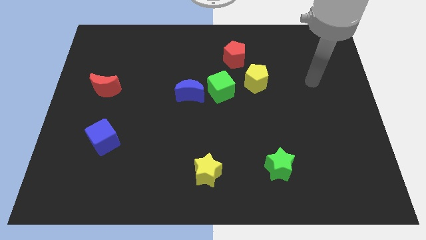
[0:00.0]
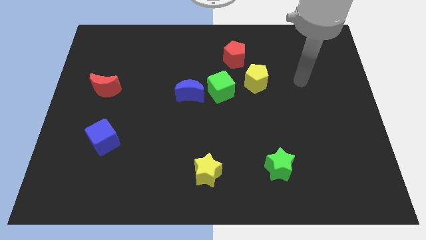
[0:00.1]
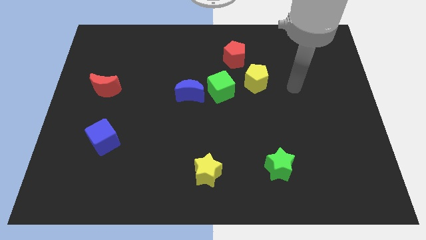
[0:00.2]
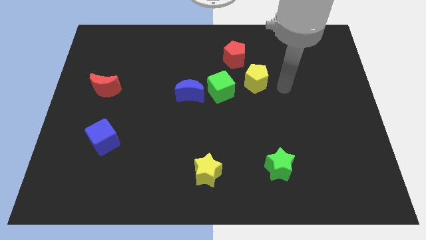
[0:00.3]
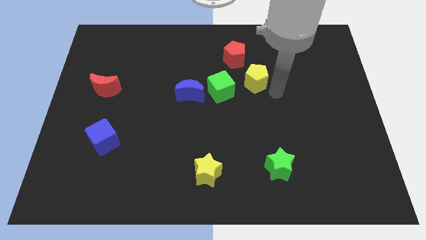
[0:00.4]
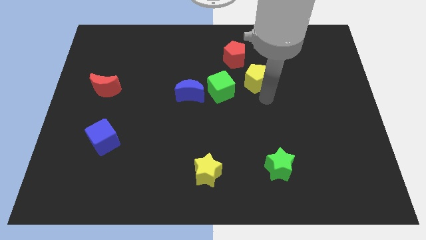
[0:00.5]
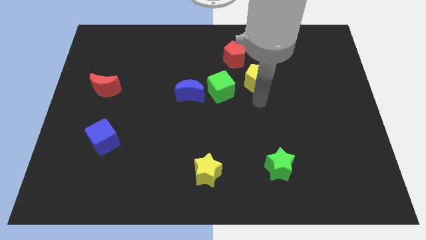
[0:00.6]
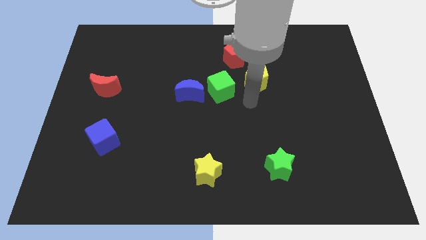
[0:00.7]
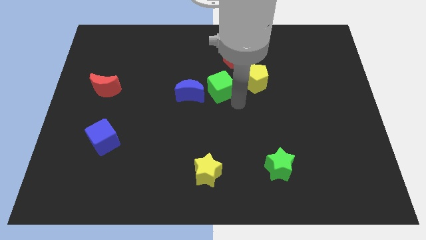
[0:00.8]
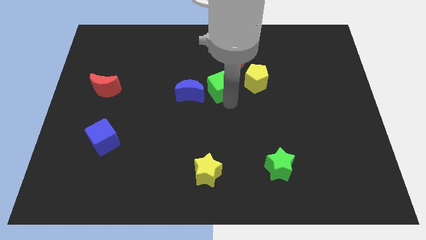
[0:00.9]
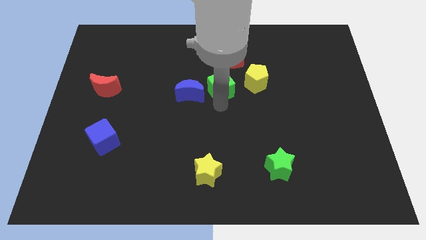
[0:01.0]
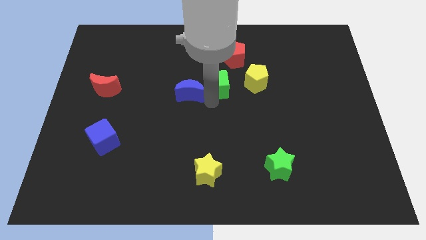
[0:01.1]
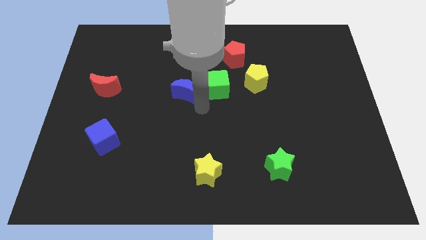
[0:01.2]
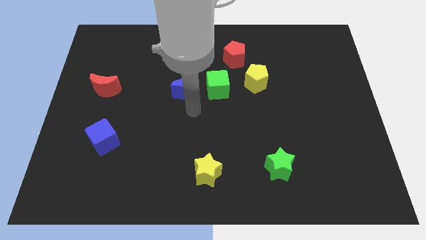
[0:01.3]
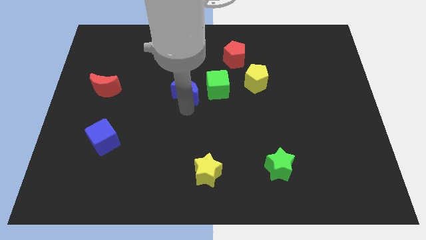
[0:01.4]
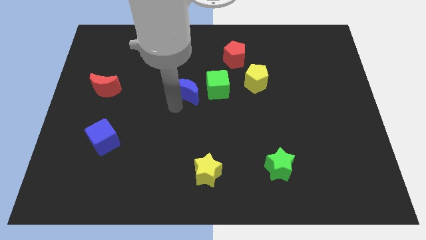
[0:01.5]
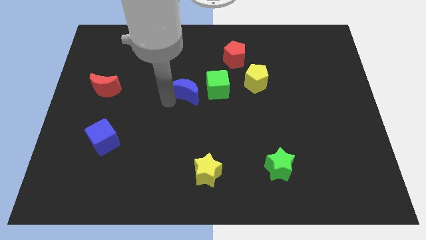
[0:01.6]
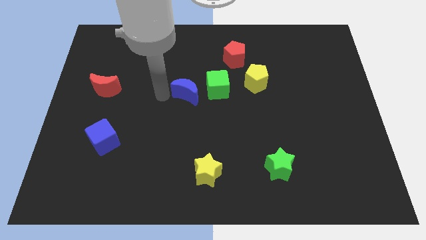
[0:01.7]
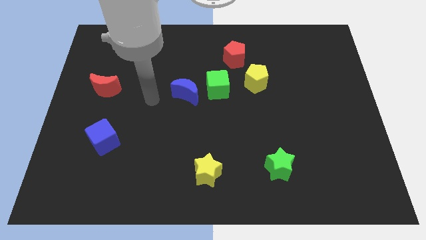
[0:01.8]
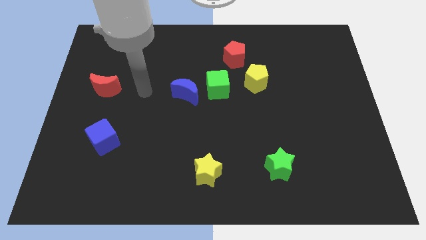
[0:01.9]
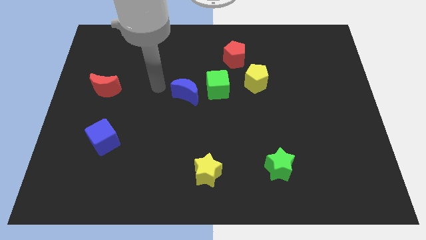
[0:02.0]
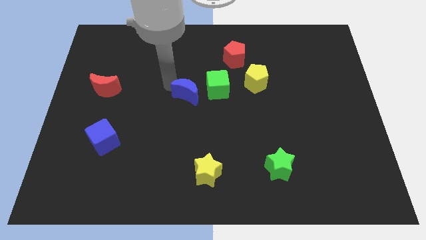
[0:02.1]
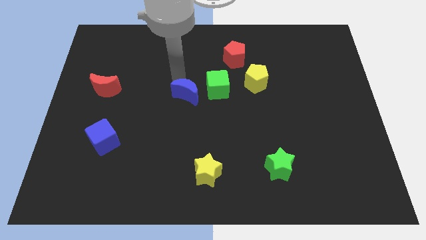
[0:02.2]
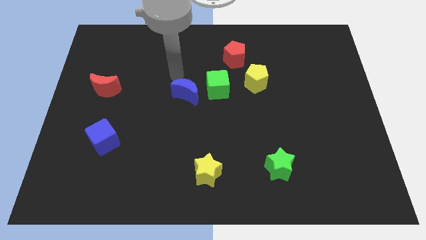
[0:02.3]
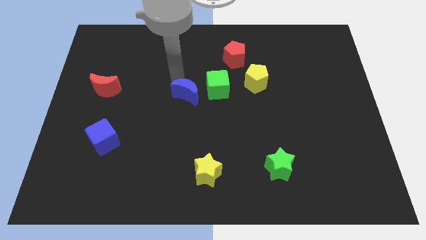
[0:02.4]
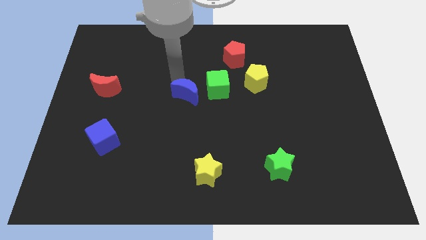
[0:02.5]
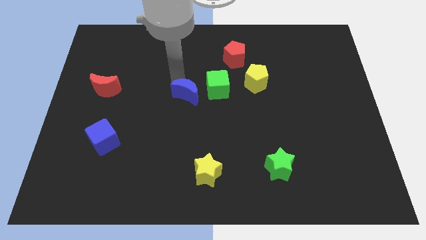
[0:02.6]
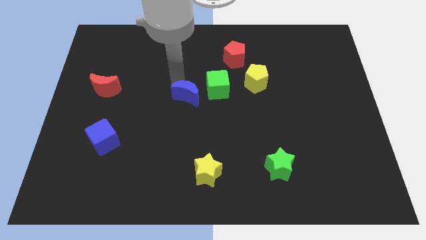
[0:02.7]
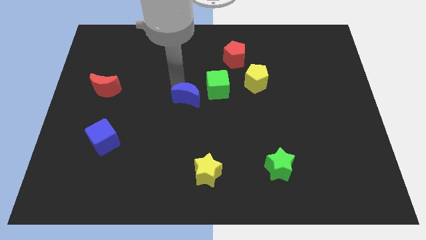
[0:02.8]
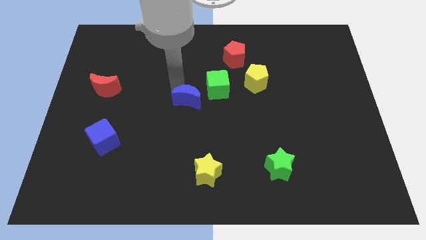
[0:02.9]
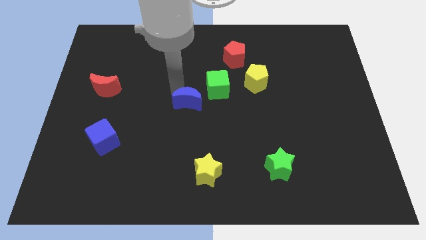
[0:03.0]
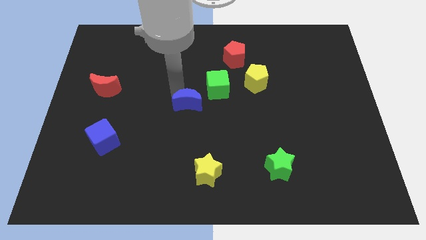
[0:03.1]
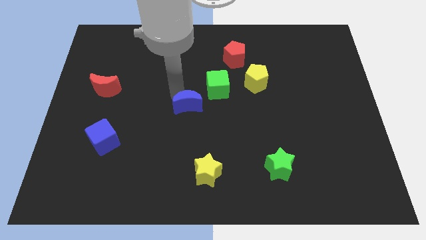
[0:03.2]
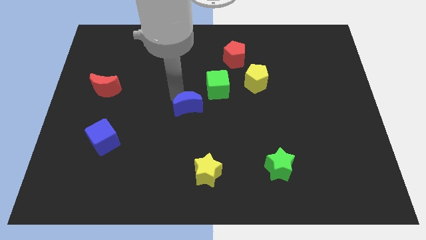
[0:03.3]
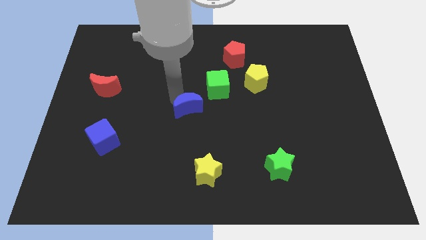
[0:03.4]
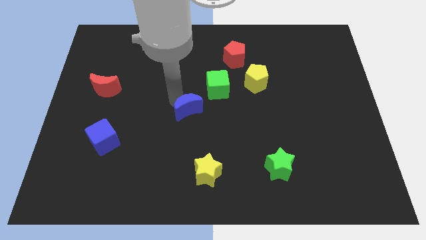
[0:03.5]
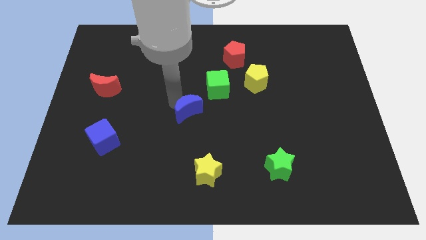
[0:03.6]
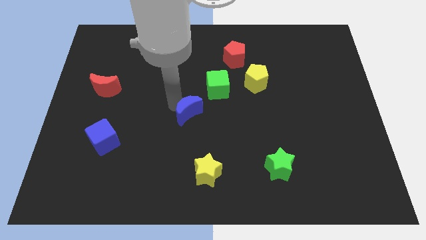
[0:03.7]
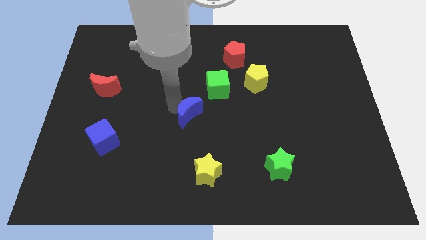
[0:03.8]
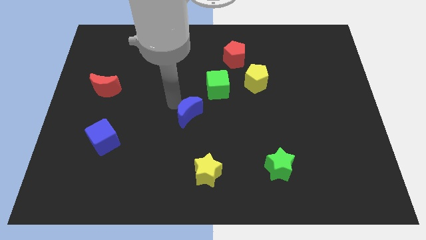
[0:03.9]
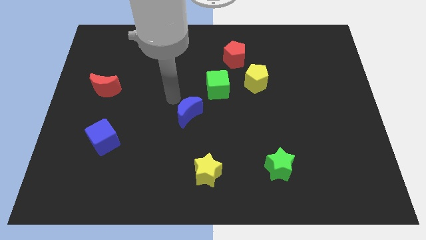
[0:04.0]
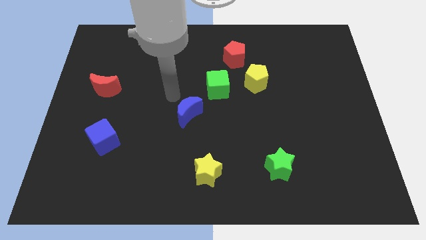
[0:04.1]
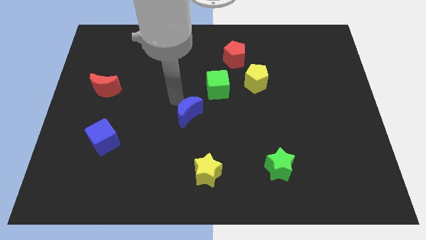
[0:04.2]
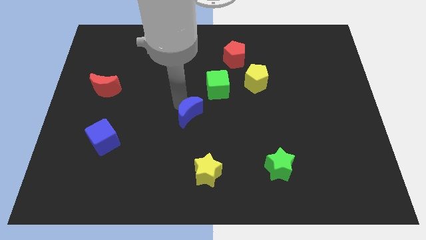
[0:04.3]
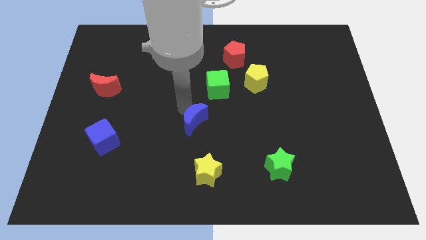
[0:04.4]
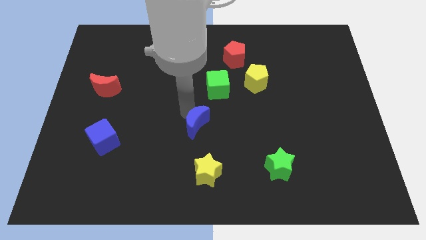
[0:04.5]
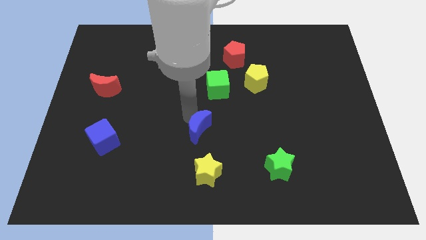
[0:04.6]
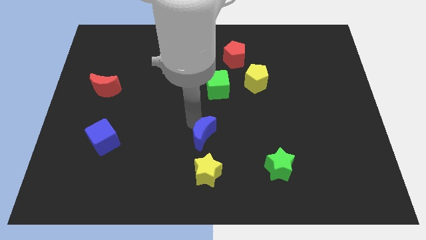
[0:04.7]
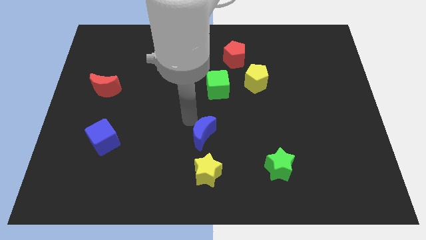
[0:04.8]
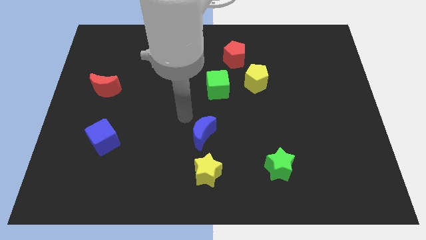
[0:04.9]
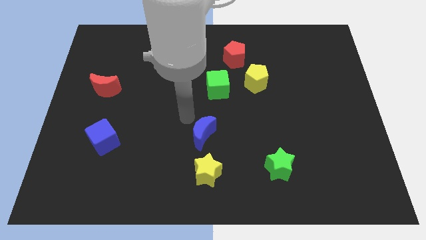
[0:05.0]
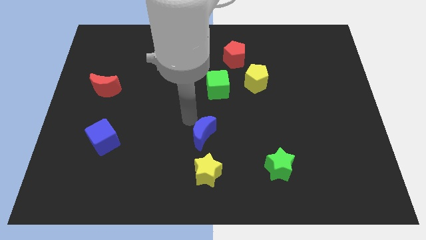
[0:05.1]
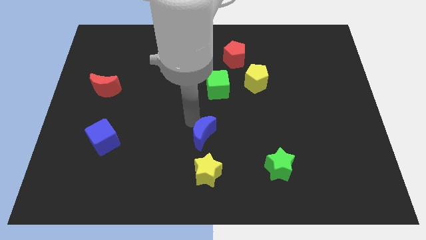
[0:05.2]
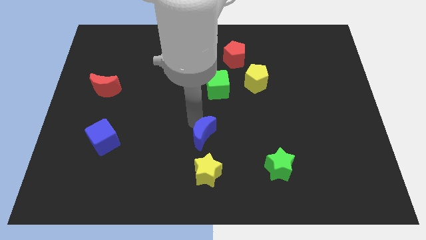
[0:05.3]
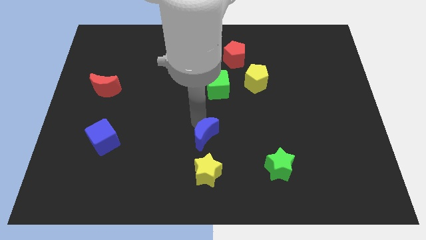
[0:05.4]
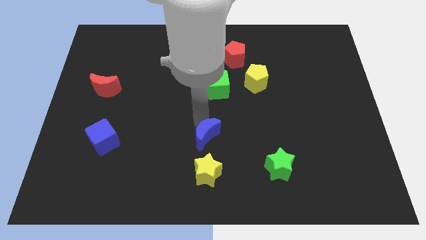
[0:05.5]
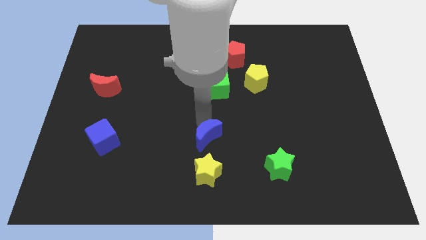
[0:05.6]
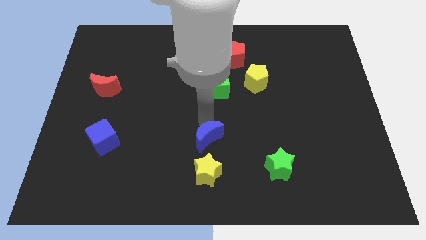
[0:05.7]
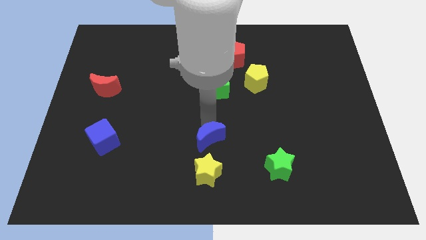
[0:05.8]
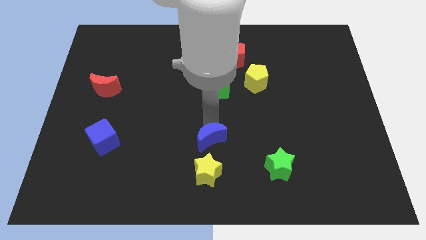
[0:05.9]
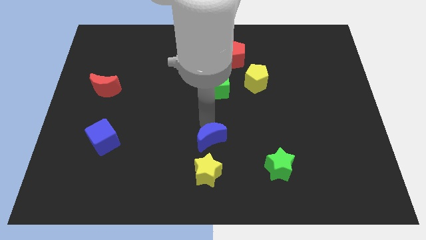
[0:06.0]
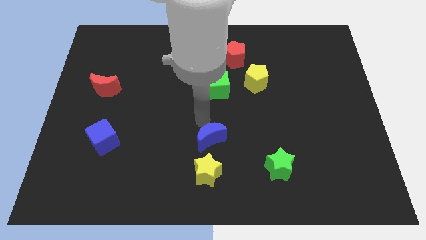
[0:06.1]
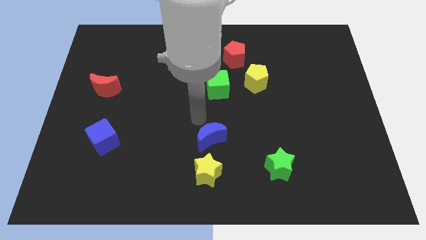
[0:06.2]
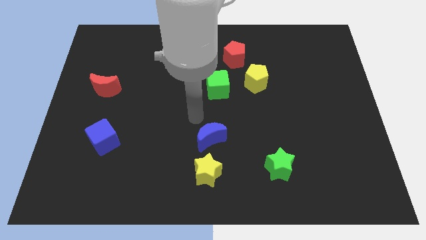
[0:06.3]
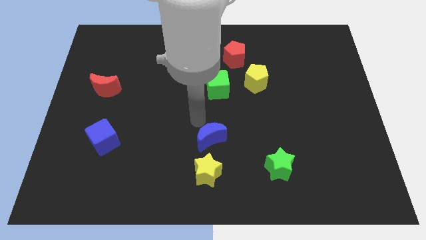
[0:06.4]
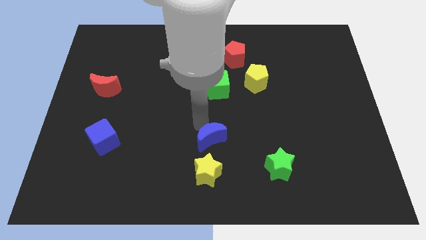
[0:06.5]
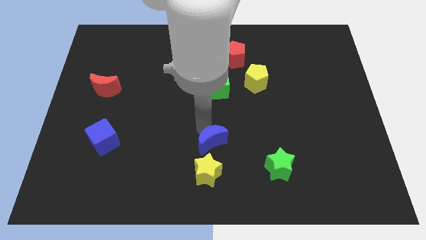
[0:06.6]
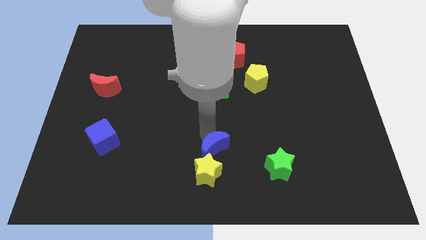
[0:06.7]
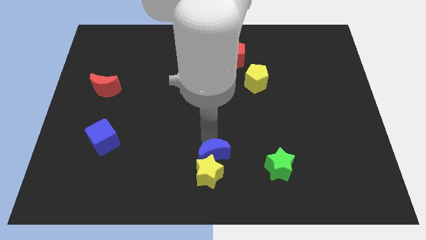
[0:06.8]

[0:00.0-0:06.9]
push the blue moon to the bottom side
